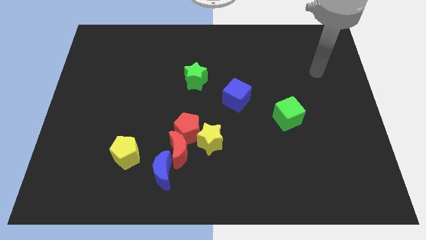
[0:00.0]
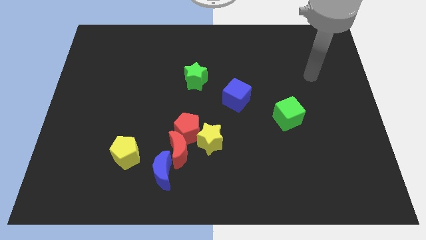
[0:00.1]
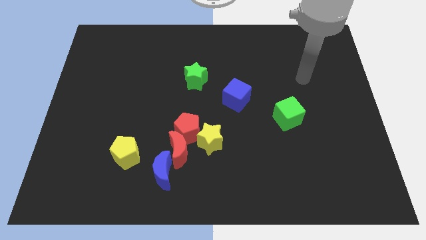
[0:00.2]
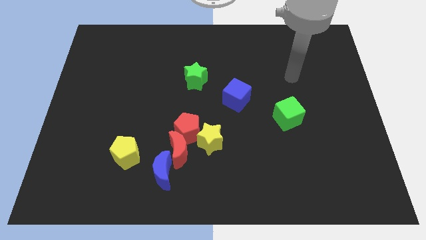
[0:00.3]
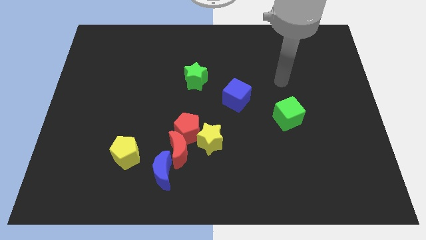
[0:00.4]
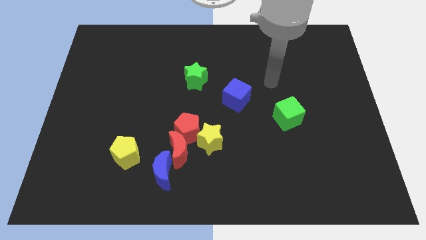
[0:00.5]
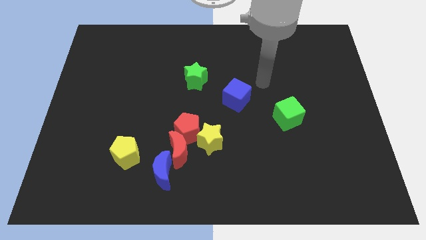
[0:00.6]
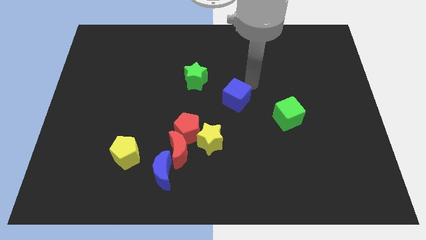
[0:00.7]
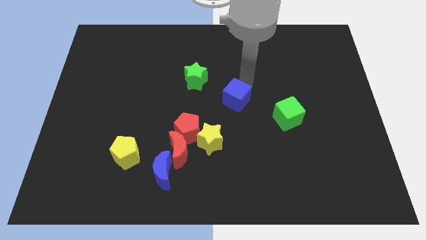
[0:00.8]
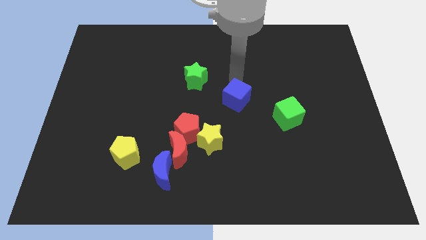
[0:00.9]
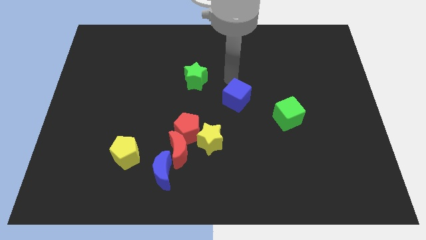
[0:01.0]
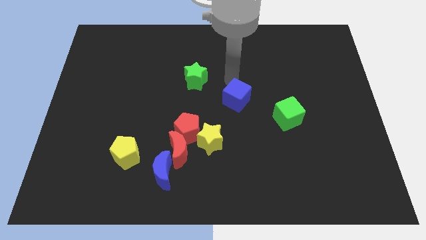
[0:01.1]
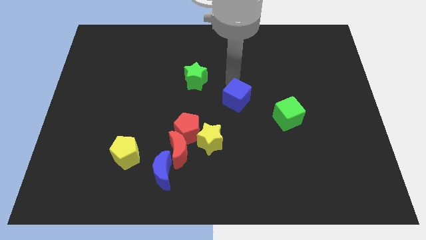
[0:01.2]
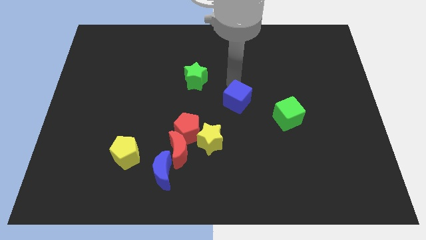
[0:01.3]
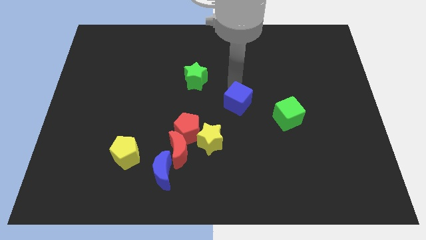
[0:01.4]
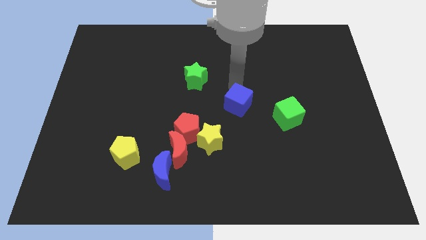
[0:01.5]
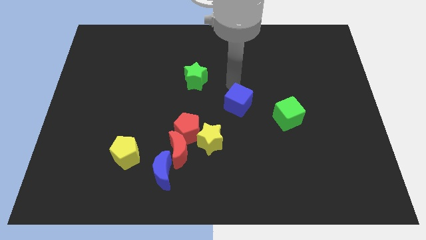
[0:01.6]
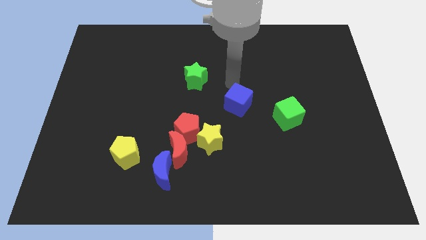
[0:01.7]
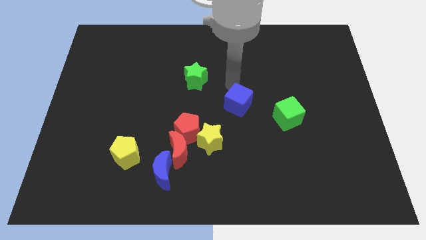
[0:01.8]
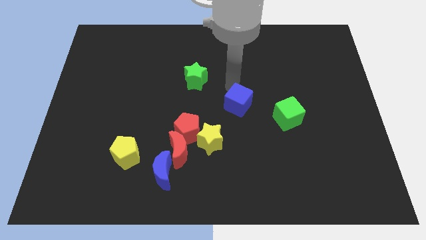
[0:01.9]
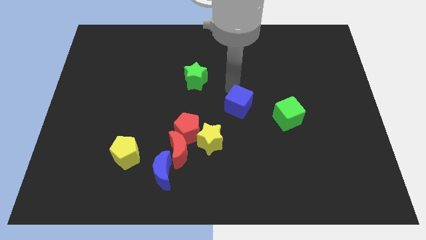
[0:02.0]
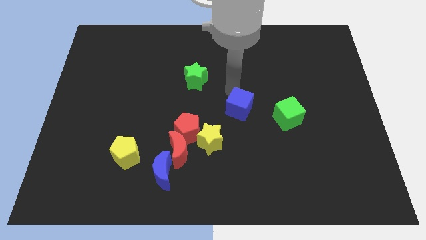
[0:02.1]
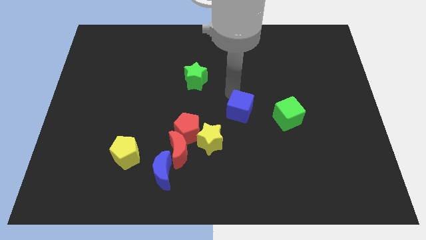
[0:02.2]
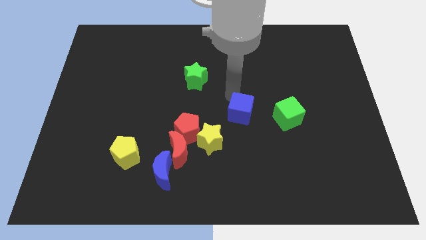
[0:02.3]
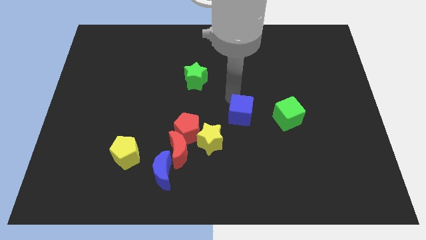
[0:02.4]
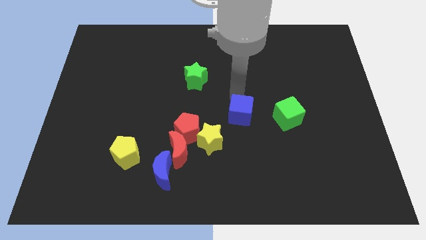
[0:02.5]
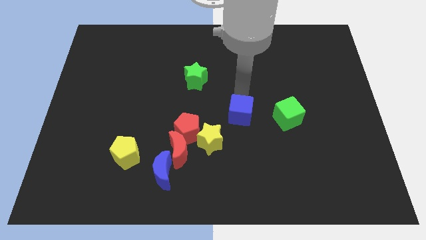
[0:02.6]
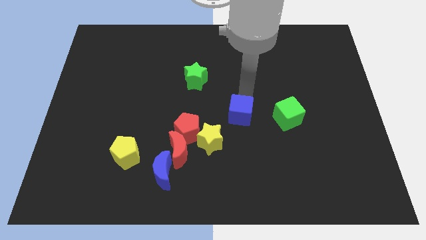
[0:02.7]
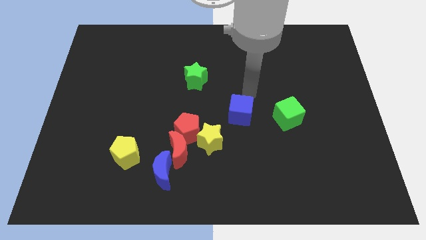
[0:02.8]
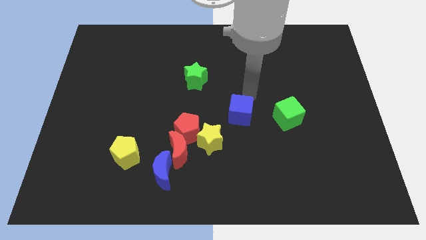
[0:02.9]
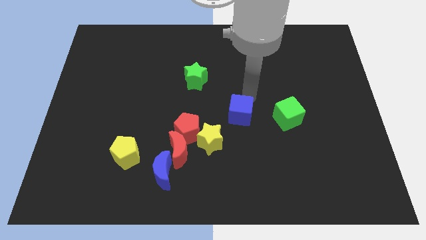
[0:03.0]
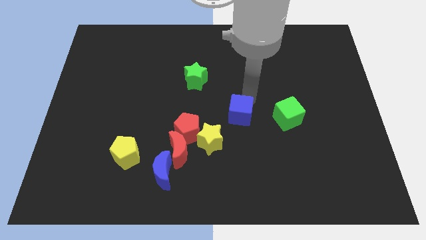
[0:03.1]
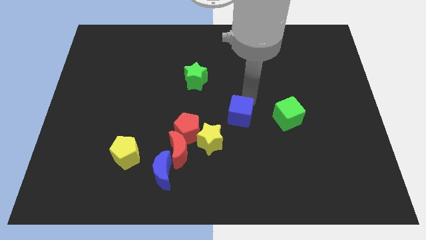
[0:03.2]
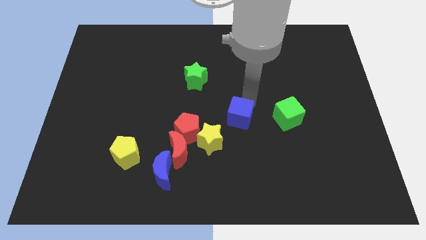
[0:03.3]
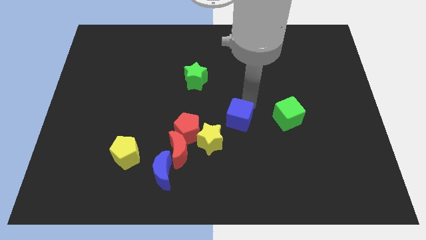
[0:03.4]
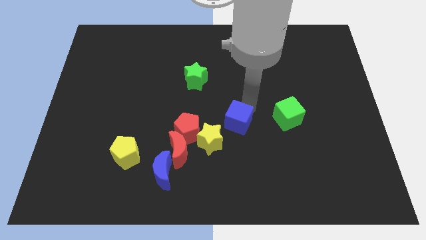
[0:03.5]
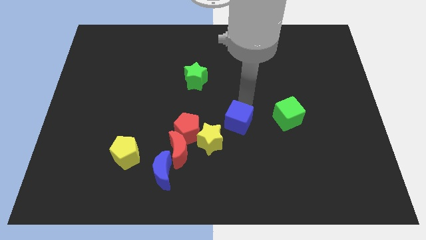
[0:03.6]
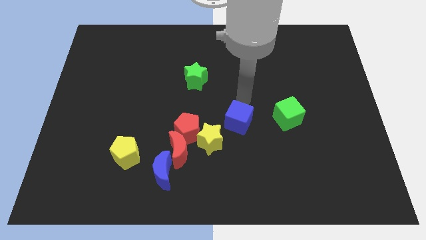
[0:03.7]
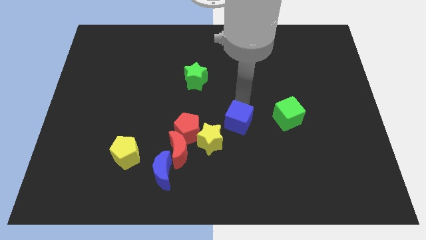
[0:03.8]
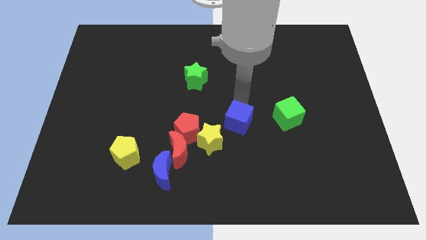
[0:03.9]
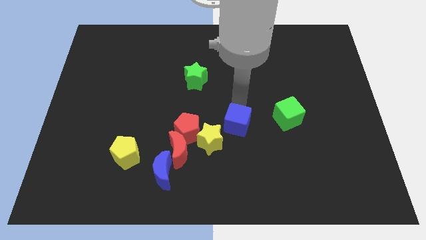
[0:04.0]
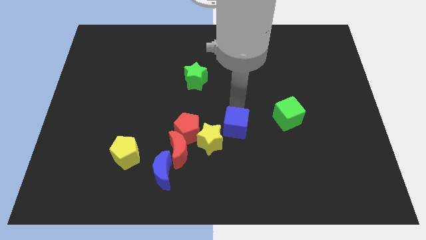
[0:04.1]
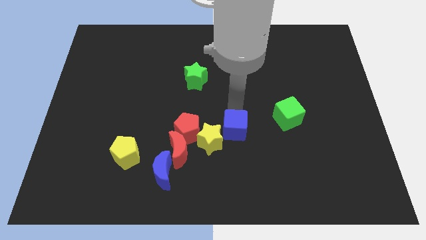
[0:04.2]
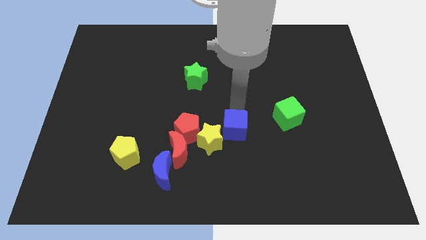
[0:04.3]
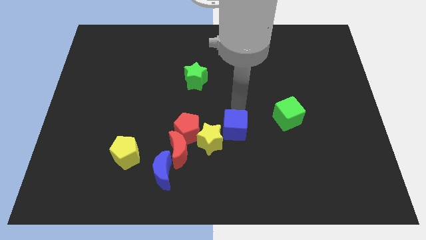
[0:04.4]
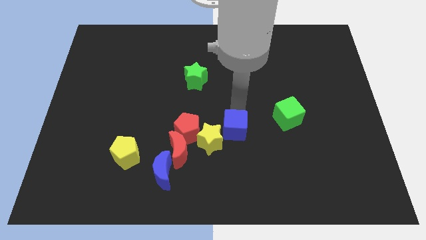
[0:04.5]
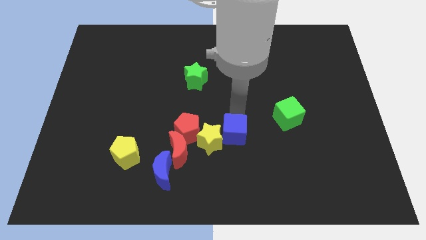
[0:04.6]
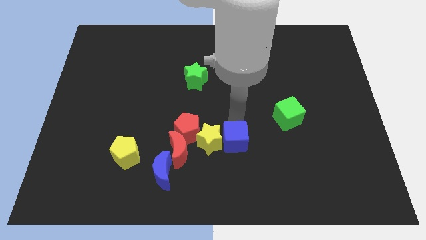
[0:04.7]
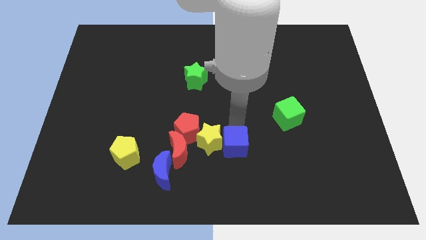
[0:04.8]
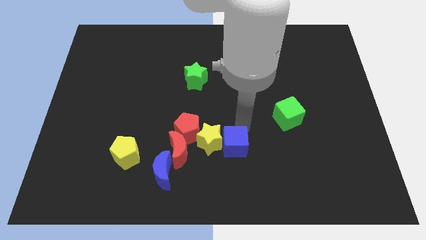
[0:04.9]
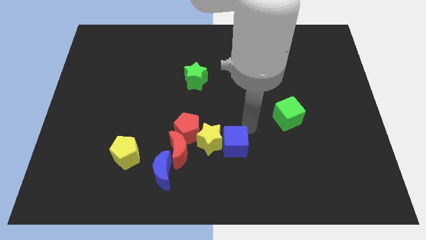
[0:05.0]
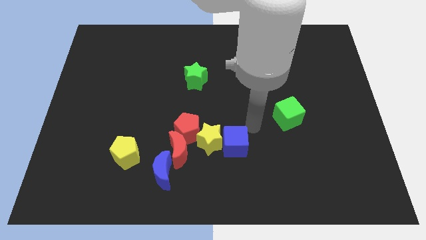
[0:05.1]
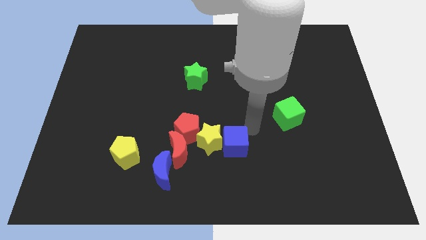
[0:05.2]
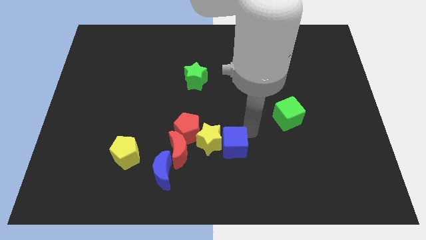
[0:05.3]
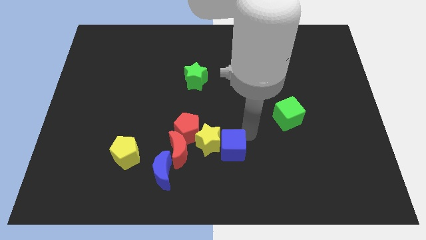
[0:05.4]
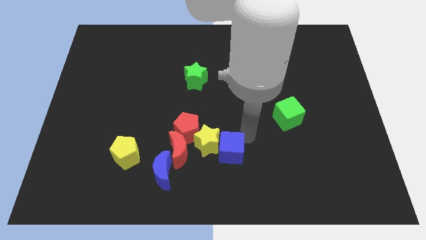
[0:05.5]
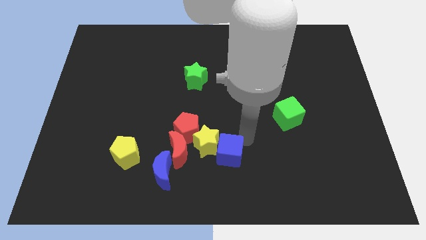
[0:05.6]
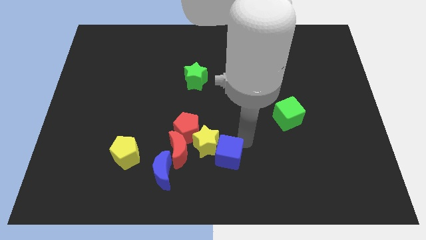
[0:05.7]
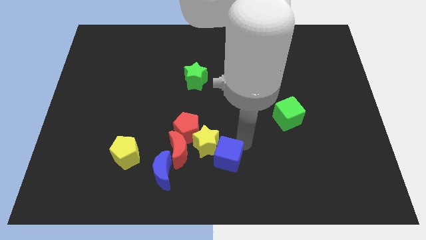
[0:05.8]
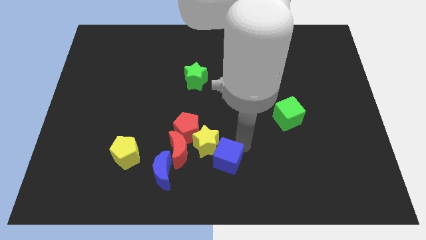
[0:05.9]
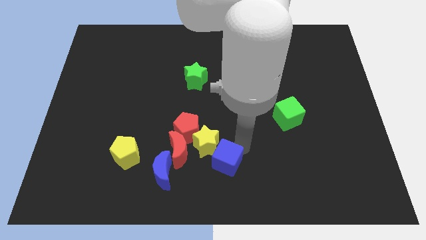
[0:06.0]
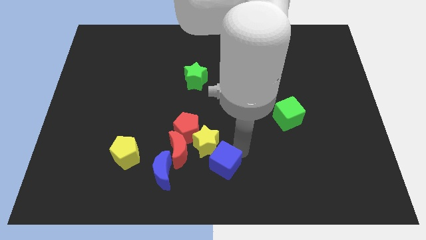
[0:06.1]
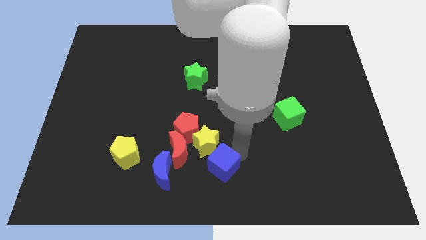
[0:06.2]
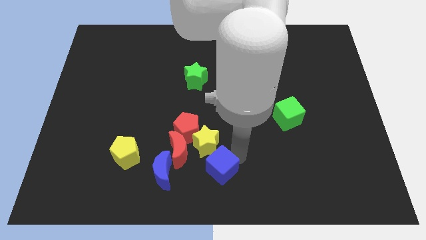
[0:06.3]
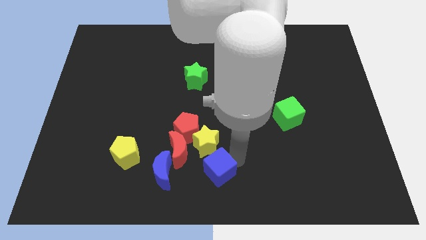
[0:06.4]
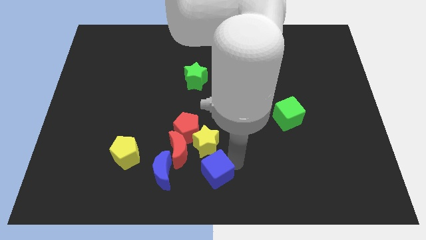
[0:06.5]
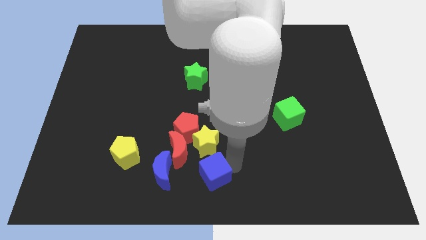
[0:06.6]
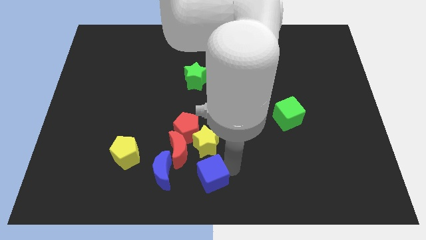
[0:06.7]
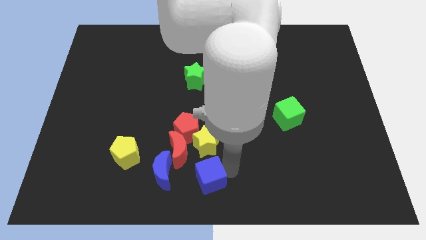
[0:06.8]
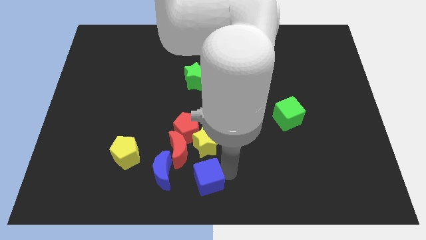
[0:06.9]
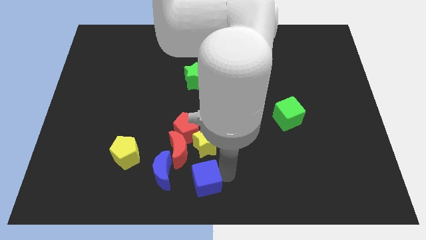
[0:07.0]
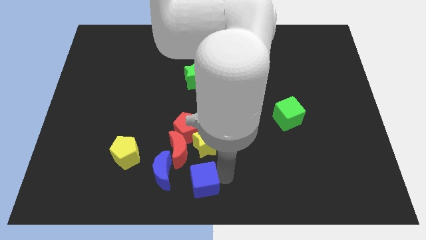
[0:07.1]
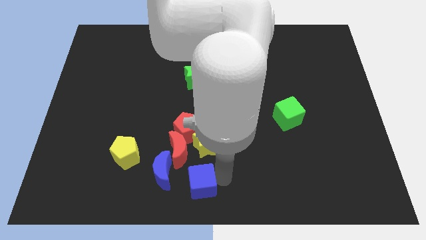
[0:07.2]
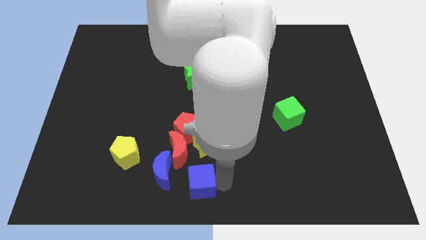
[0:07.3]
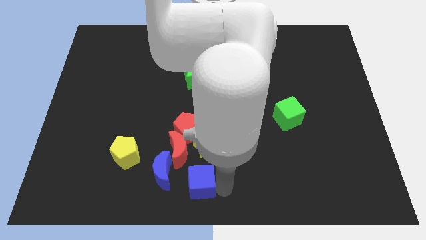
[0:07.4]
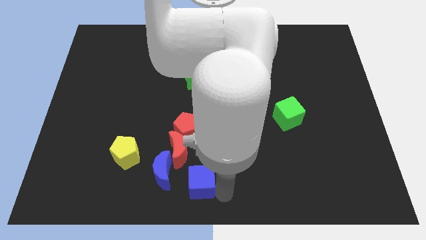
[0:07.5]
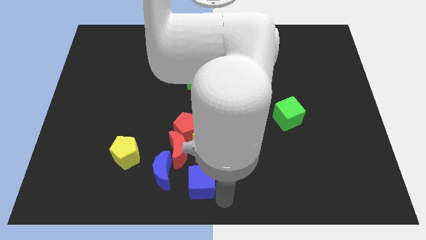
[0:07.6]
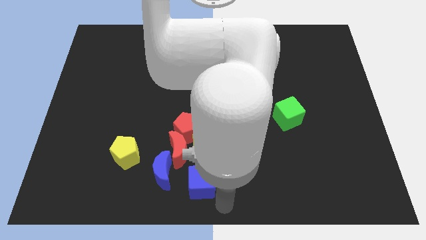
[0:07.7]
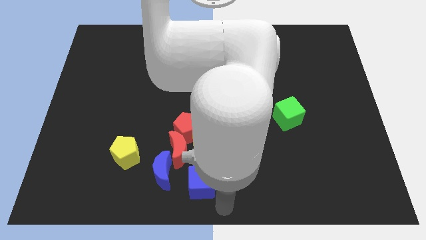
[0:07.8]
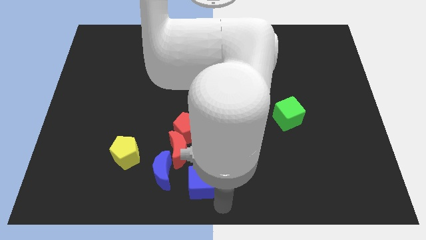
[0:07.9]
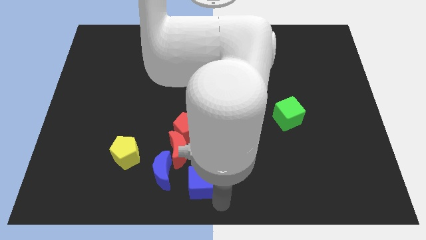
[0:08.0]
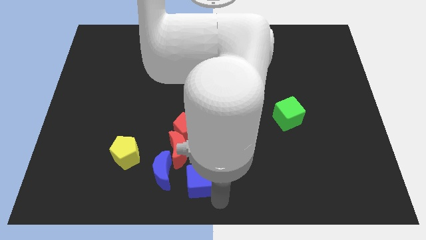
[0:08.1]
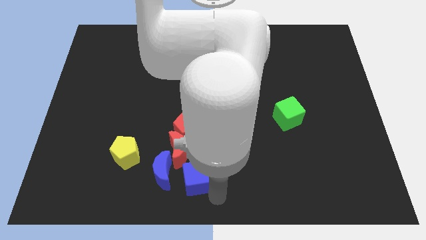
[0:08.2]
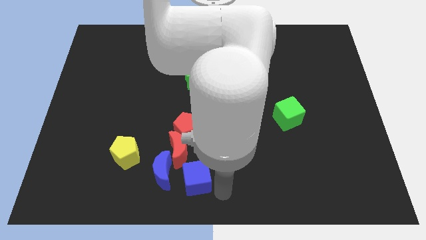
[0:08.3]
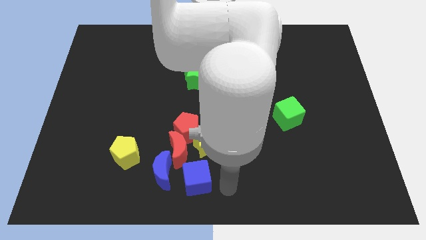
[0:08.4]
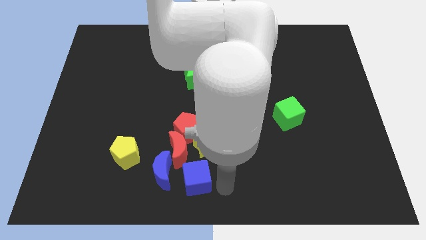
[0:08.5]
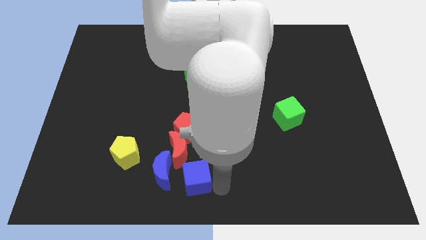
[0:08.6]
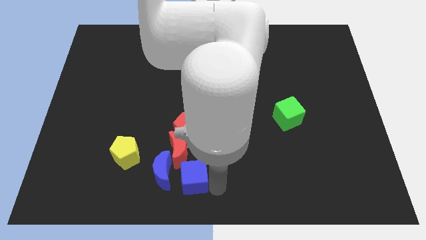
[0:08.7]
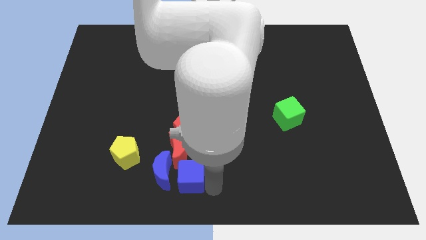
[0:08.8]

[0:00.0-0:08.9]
put the blue cube to the blue moon
